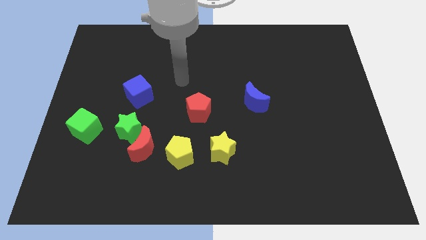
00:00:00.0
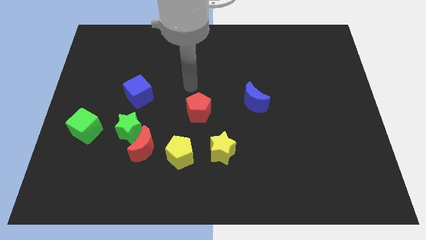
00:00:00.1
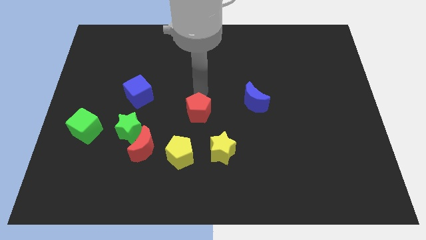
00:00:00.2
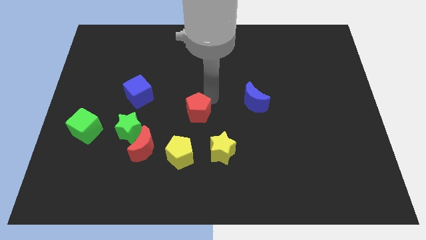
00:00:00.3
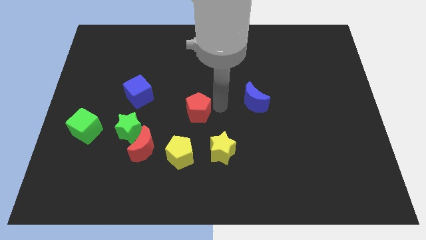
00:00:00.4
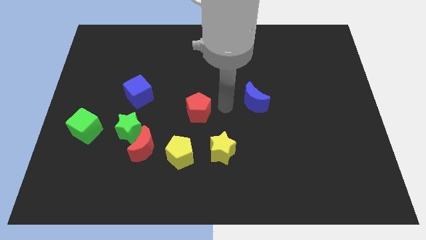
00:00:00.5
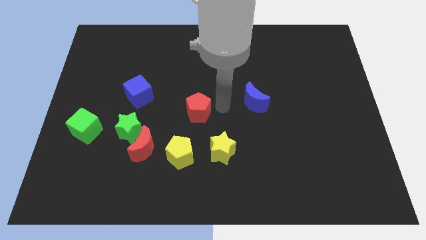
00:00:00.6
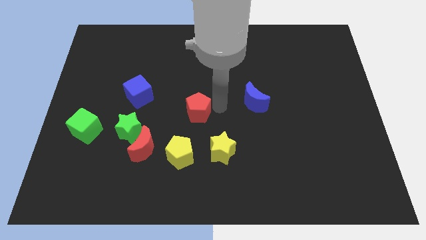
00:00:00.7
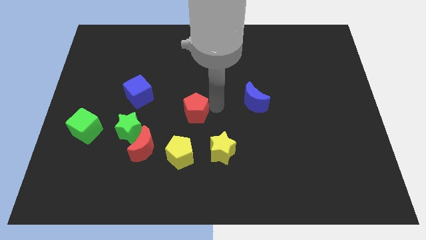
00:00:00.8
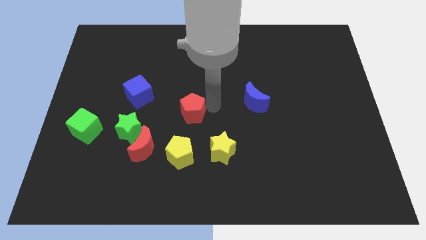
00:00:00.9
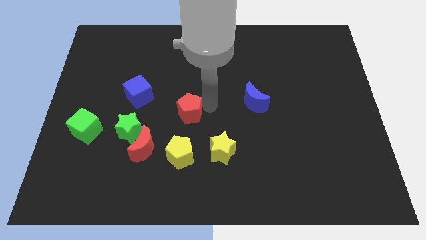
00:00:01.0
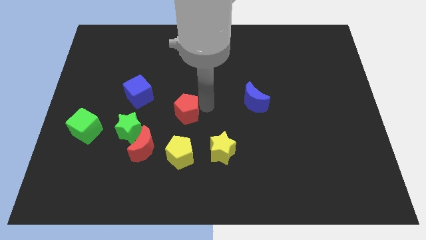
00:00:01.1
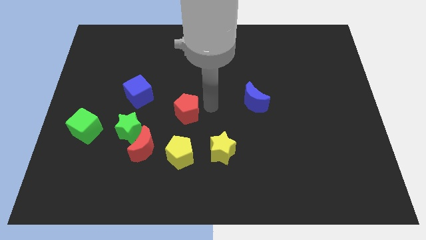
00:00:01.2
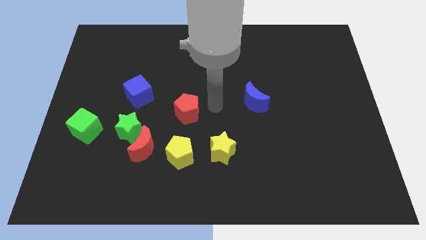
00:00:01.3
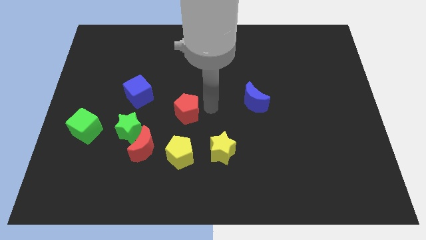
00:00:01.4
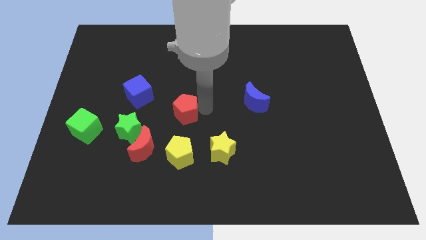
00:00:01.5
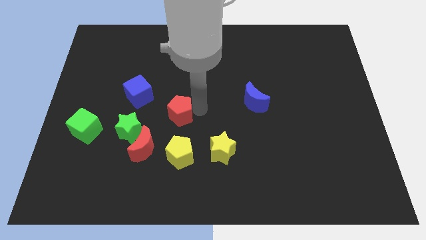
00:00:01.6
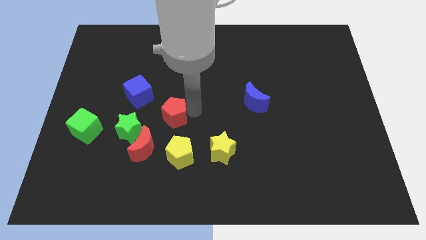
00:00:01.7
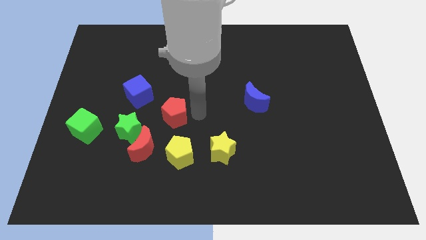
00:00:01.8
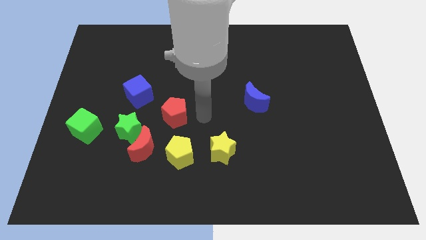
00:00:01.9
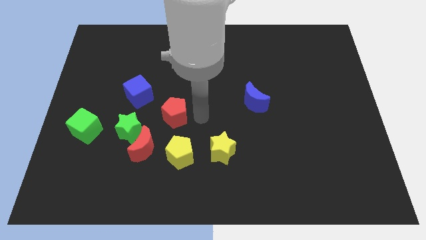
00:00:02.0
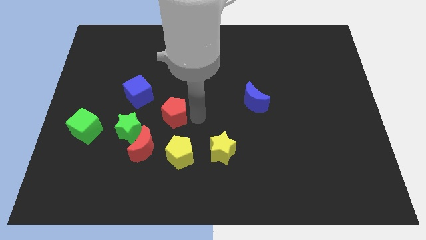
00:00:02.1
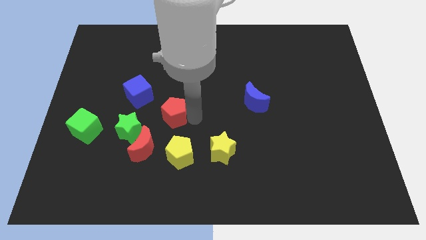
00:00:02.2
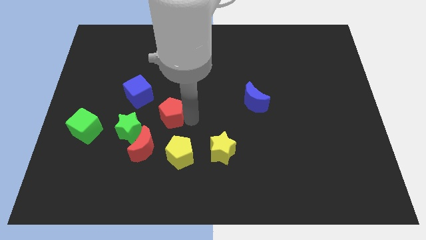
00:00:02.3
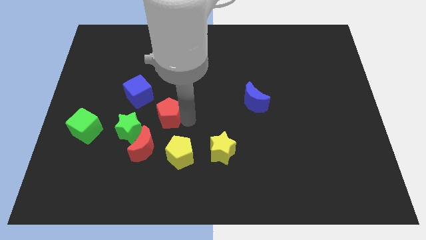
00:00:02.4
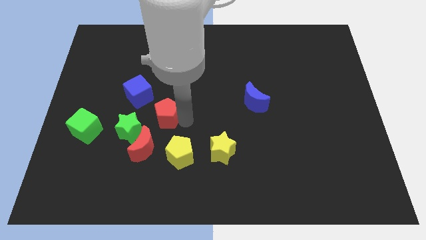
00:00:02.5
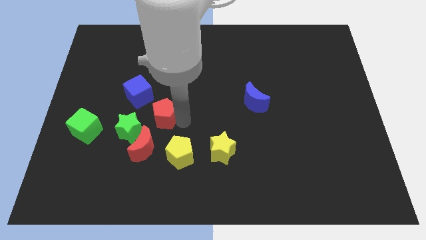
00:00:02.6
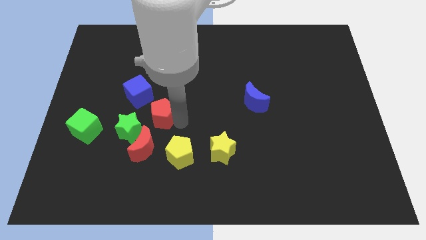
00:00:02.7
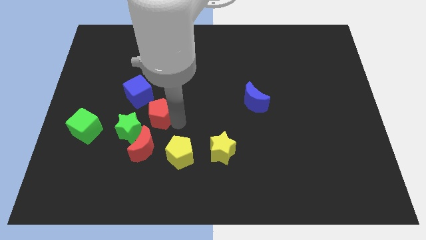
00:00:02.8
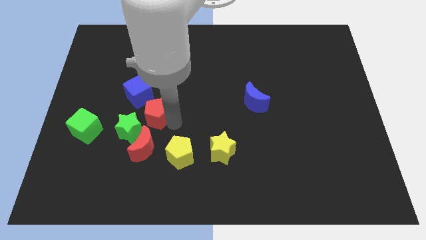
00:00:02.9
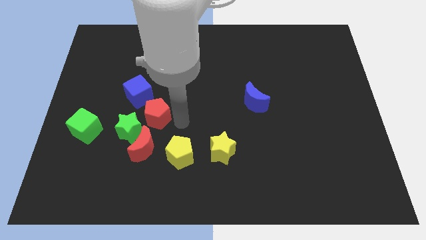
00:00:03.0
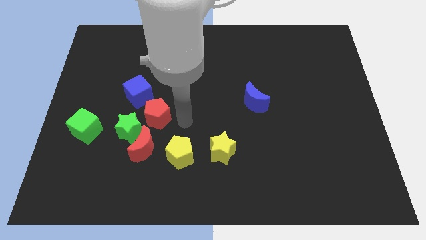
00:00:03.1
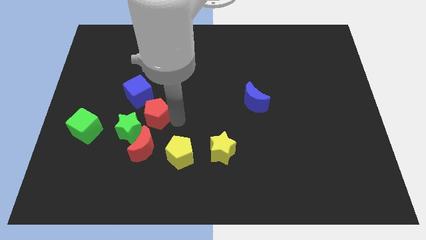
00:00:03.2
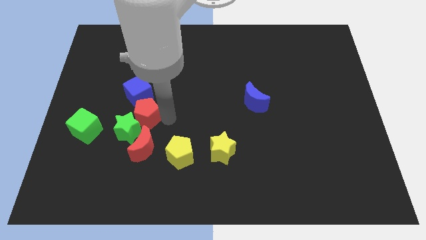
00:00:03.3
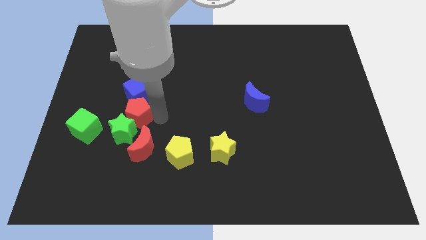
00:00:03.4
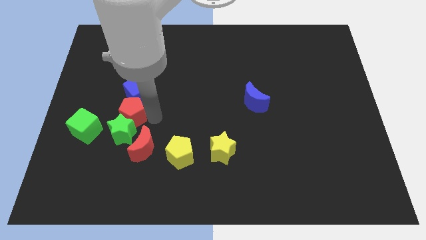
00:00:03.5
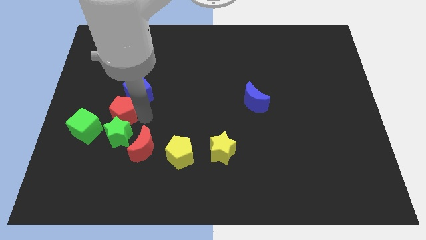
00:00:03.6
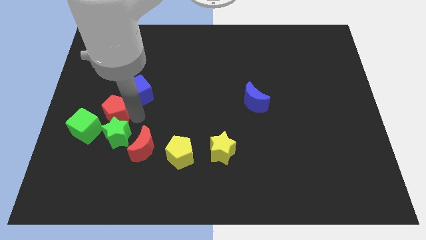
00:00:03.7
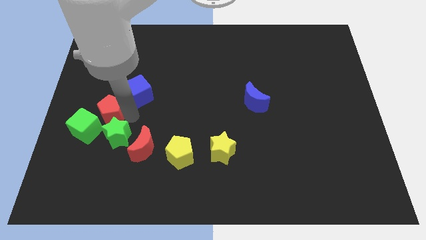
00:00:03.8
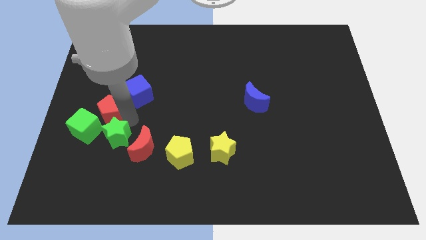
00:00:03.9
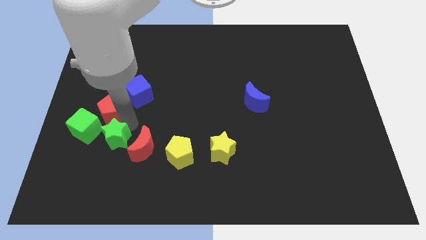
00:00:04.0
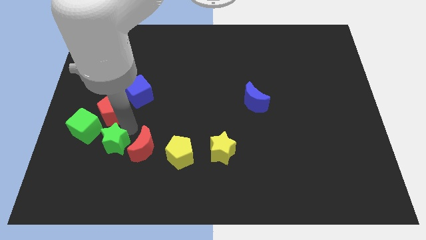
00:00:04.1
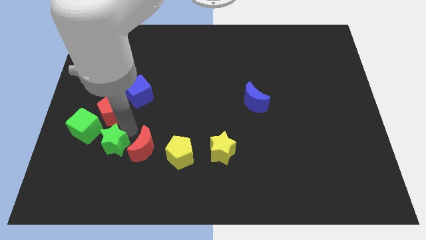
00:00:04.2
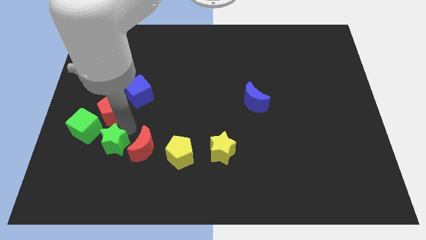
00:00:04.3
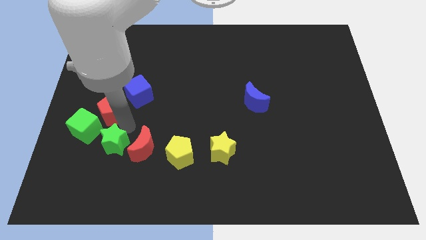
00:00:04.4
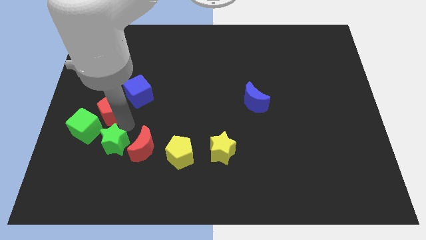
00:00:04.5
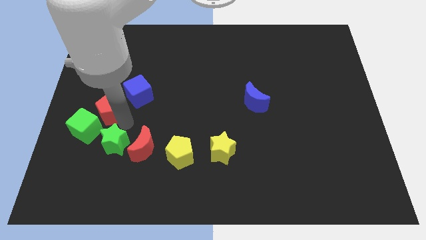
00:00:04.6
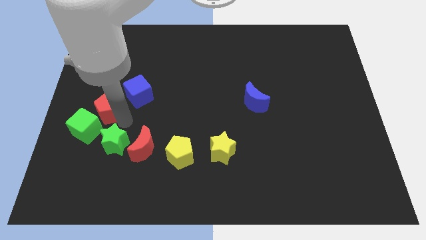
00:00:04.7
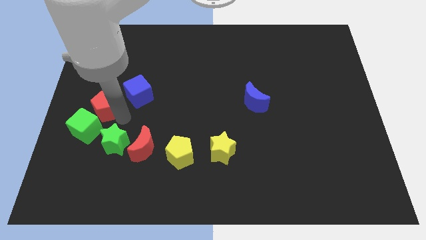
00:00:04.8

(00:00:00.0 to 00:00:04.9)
push the red pentagon to the left side

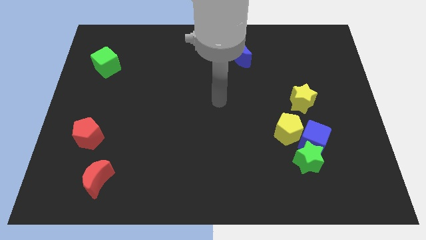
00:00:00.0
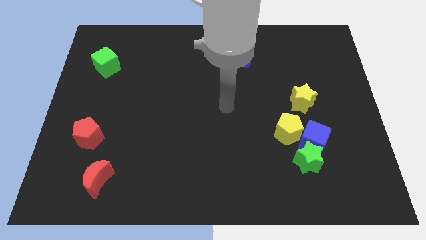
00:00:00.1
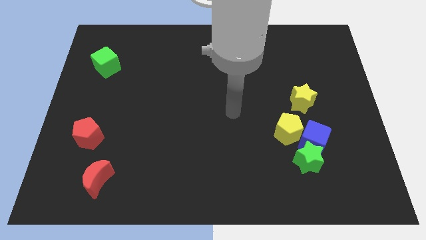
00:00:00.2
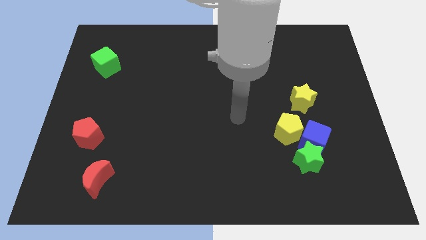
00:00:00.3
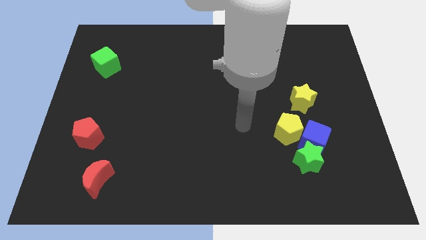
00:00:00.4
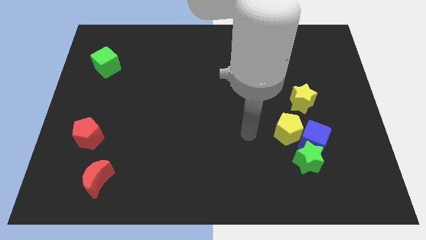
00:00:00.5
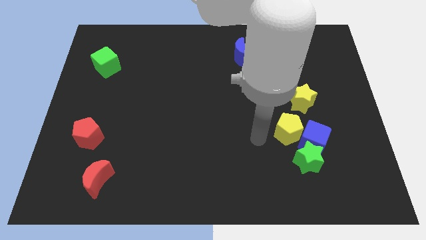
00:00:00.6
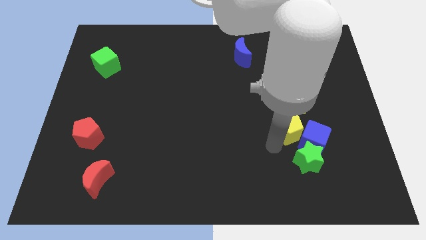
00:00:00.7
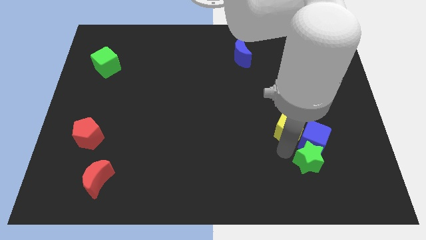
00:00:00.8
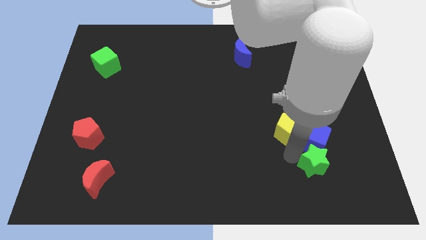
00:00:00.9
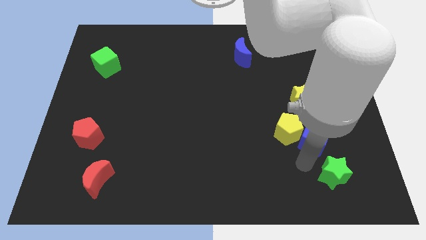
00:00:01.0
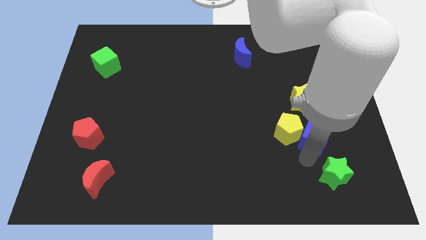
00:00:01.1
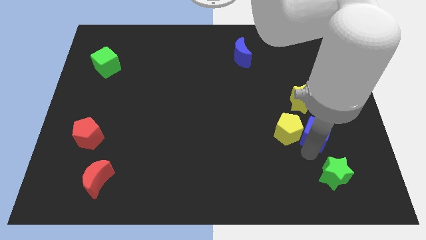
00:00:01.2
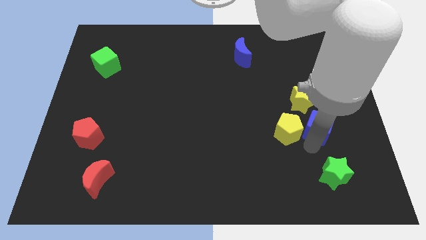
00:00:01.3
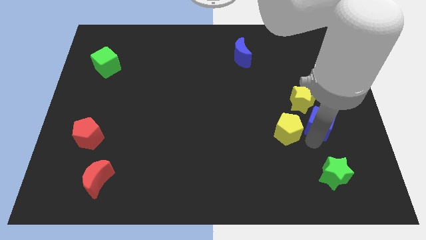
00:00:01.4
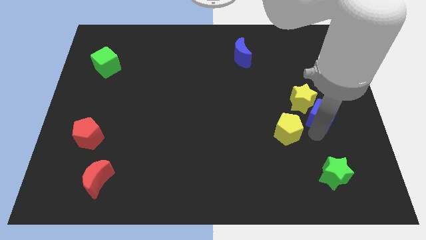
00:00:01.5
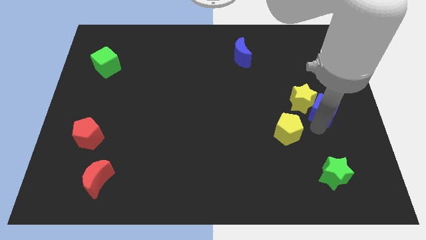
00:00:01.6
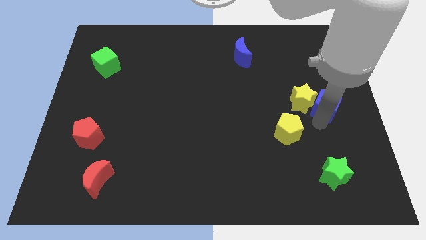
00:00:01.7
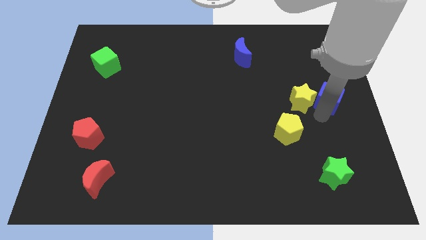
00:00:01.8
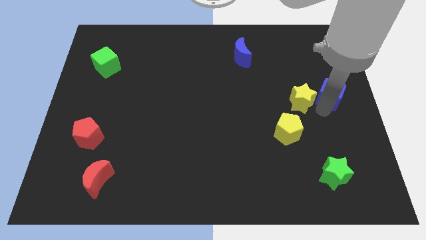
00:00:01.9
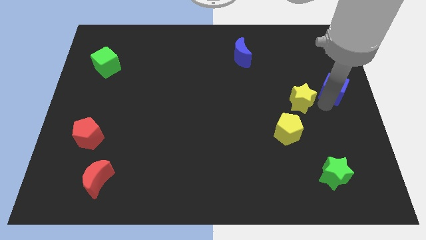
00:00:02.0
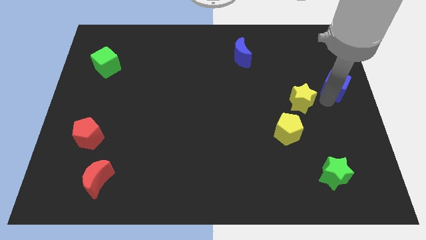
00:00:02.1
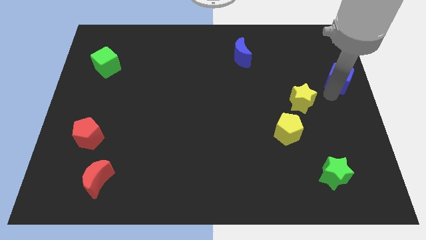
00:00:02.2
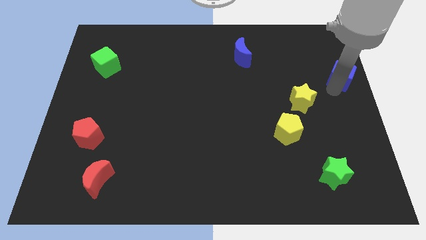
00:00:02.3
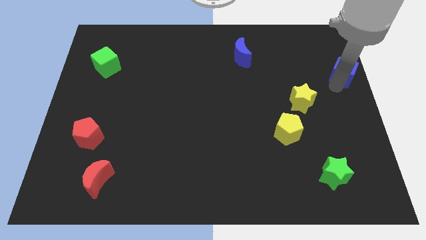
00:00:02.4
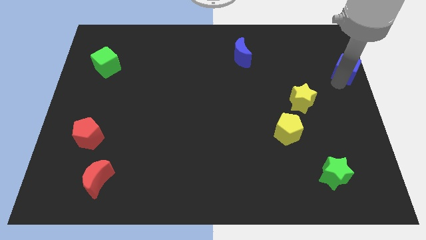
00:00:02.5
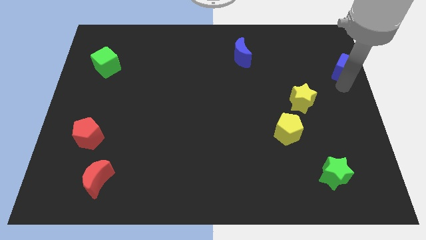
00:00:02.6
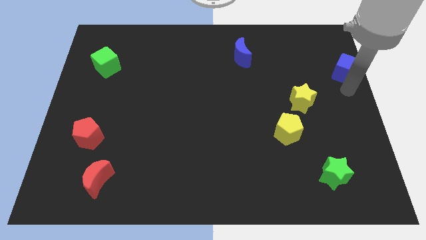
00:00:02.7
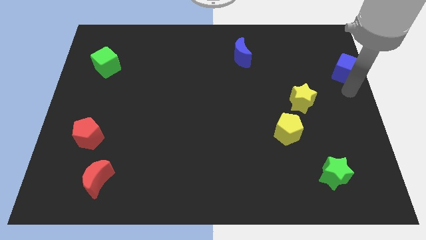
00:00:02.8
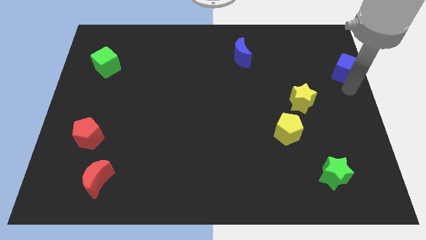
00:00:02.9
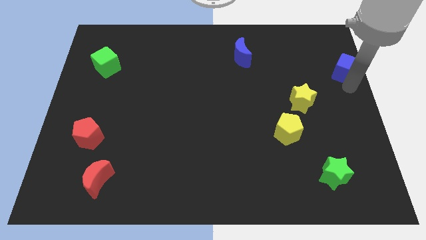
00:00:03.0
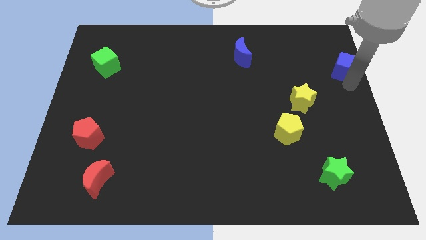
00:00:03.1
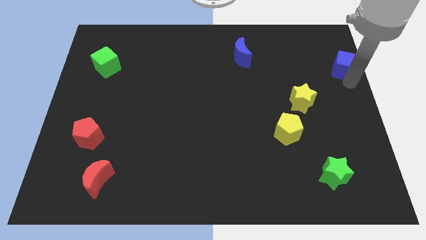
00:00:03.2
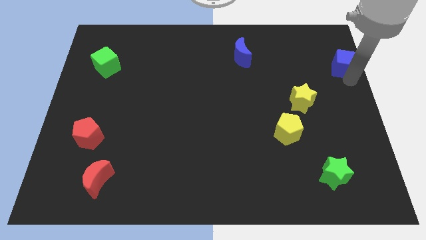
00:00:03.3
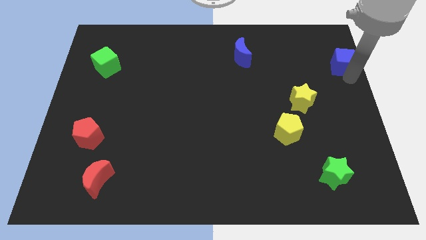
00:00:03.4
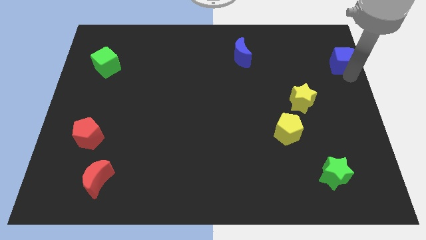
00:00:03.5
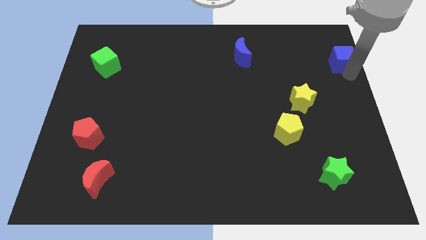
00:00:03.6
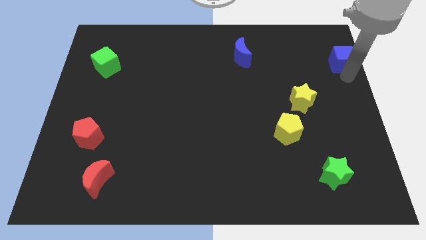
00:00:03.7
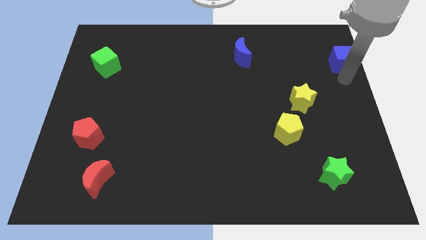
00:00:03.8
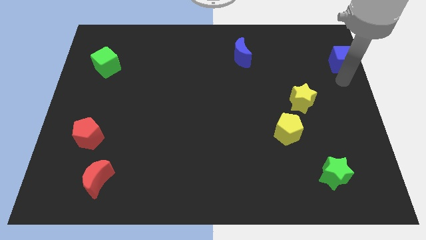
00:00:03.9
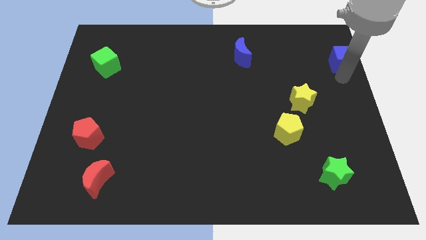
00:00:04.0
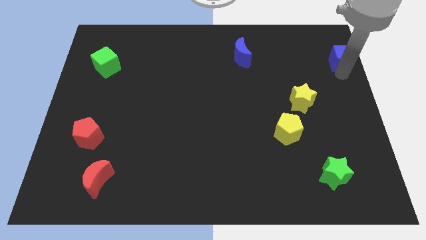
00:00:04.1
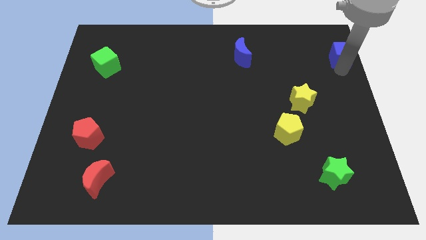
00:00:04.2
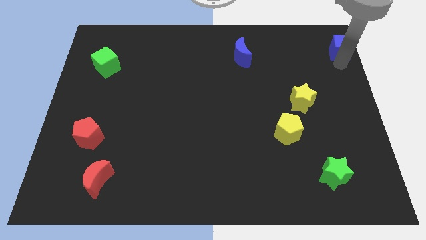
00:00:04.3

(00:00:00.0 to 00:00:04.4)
push the blue cube to the top right of the board
